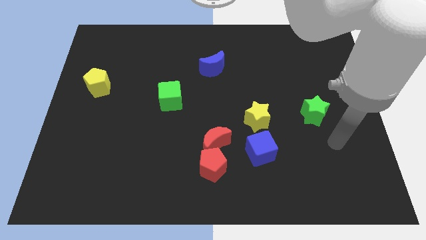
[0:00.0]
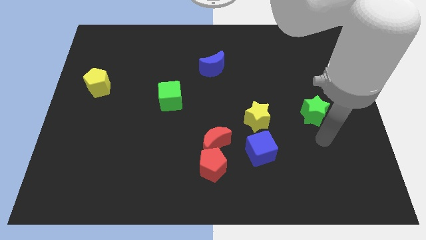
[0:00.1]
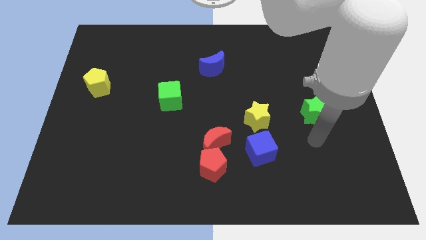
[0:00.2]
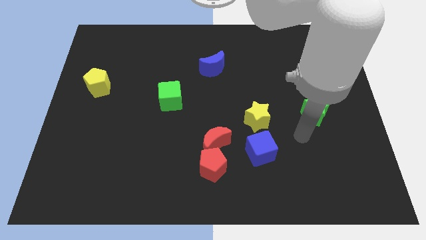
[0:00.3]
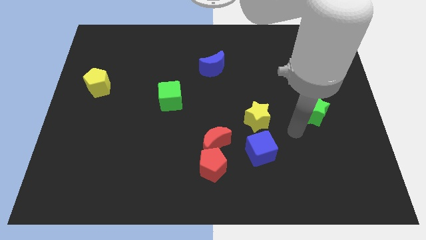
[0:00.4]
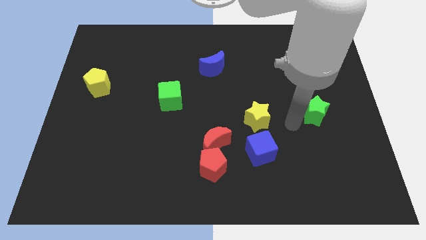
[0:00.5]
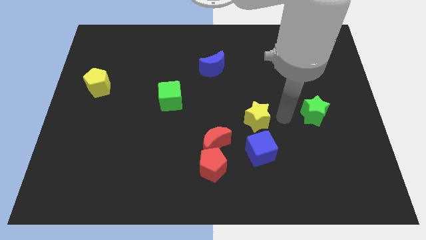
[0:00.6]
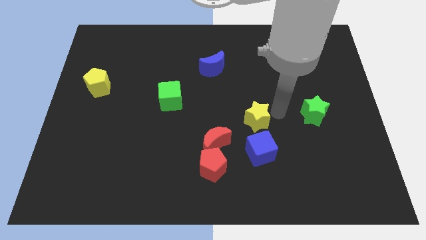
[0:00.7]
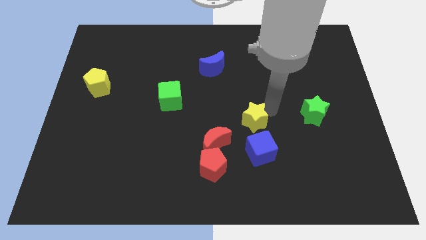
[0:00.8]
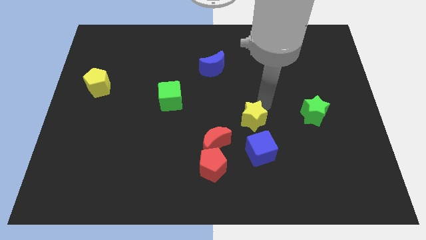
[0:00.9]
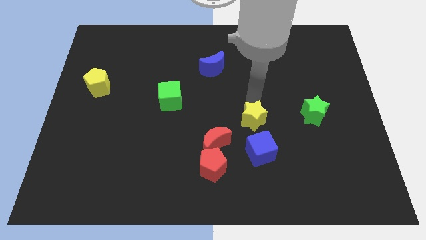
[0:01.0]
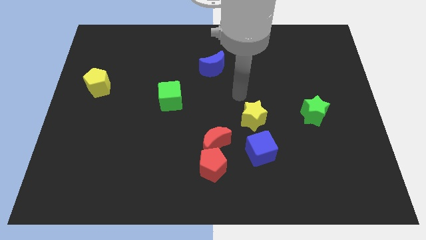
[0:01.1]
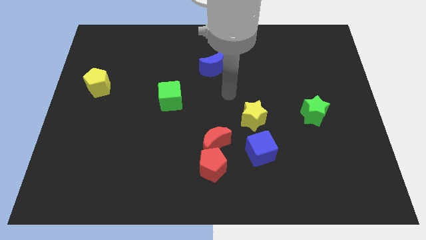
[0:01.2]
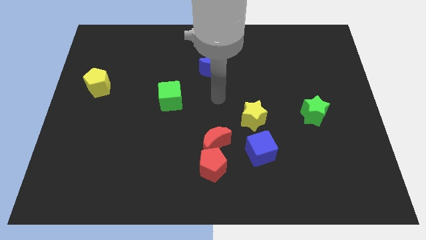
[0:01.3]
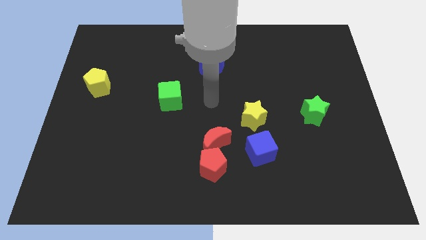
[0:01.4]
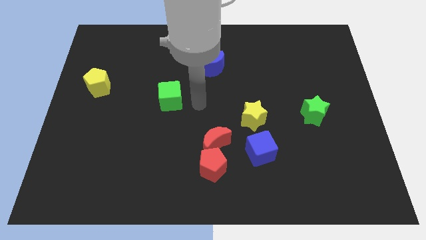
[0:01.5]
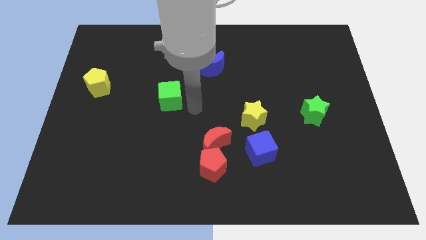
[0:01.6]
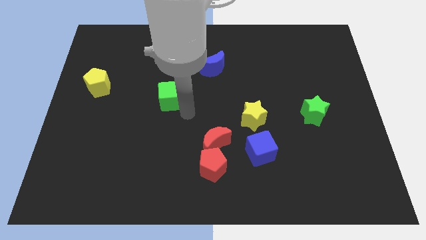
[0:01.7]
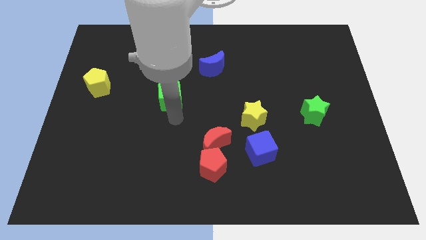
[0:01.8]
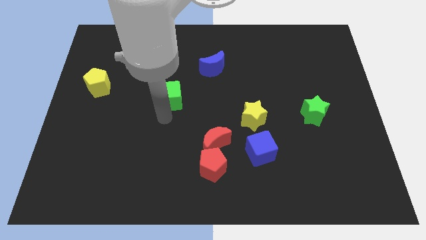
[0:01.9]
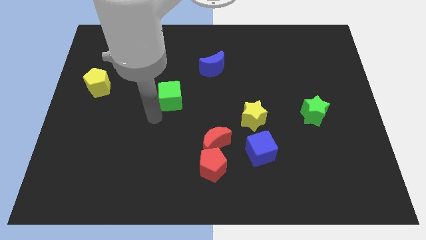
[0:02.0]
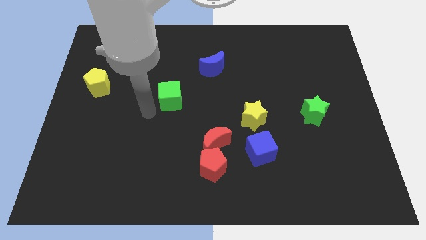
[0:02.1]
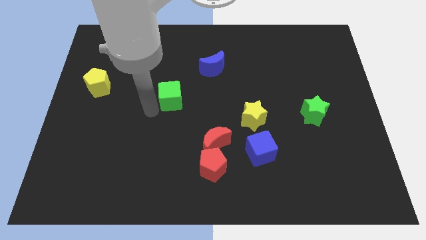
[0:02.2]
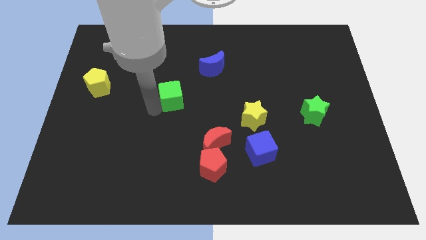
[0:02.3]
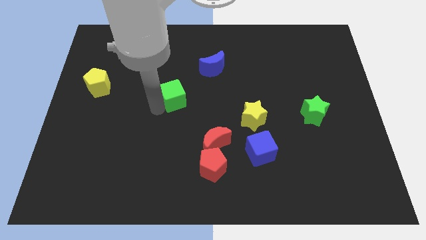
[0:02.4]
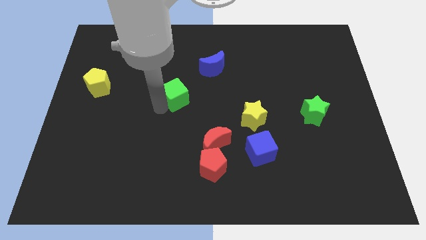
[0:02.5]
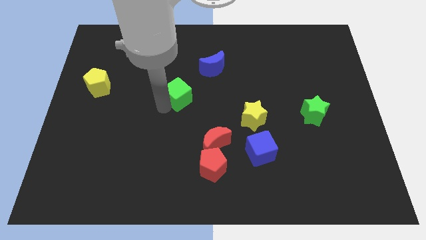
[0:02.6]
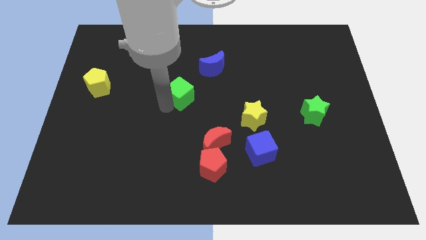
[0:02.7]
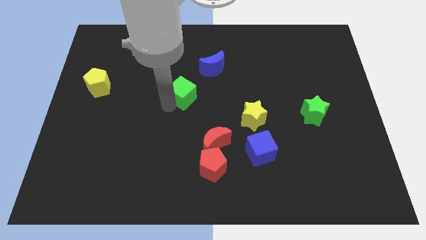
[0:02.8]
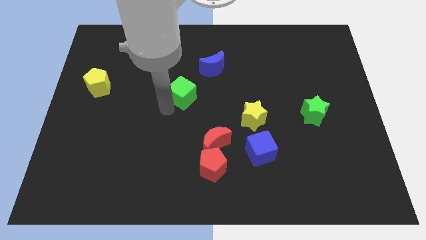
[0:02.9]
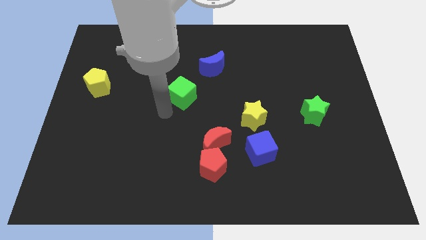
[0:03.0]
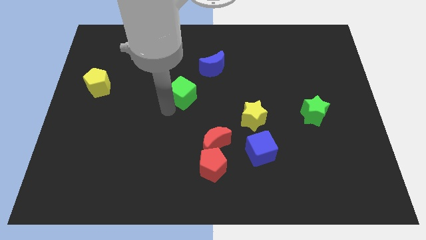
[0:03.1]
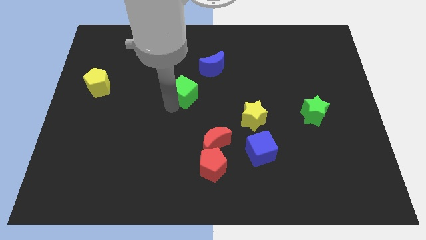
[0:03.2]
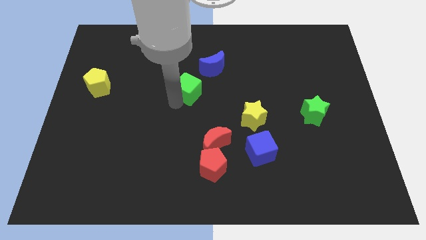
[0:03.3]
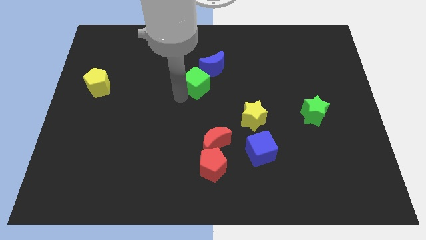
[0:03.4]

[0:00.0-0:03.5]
slightly move the green cube upwards and to the right

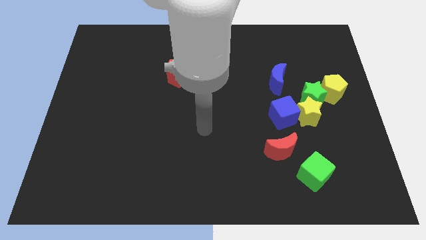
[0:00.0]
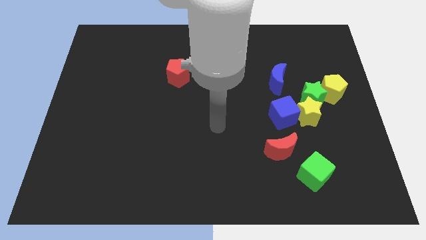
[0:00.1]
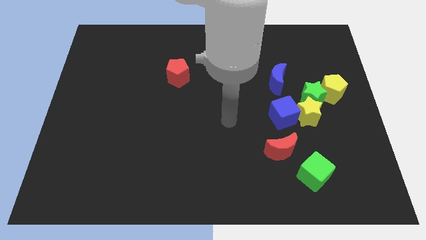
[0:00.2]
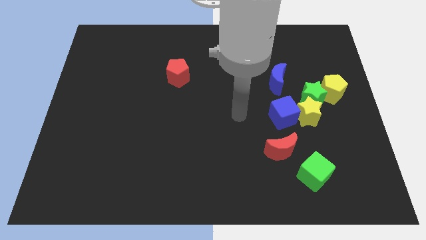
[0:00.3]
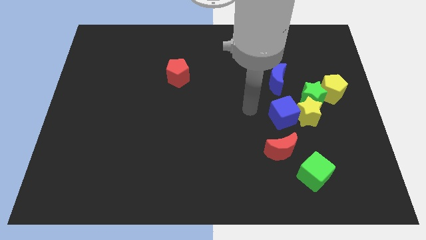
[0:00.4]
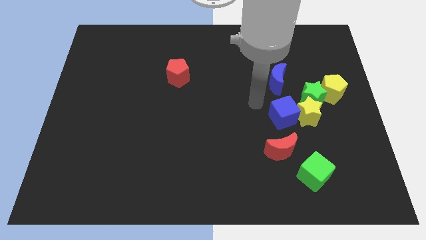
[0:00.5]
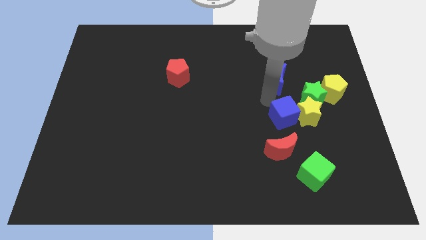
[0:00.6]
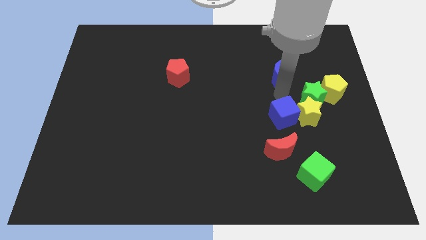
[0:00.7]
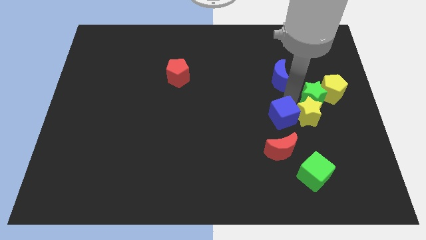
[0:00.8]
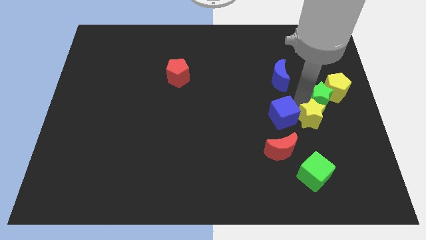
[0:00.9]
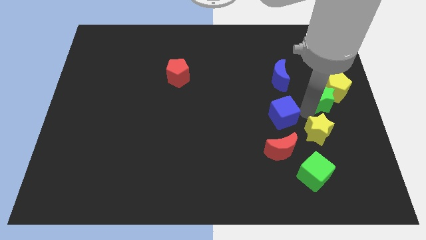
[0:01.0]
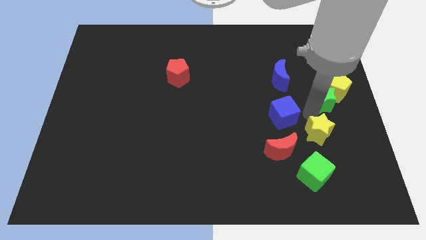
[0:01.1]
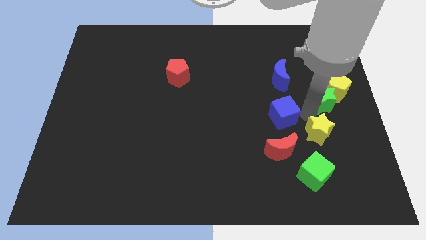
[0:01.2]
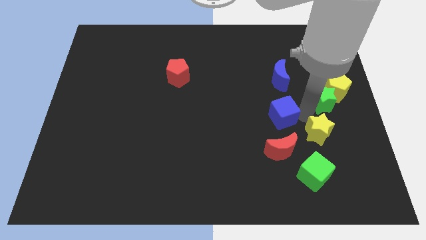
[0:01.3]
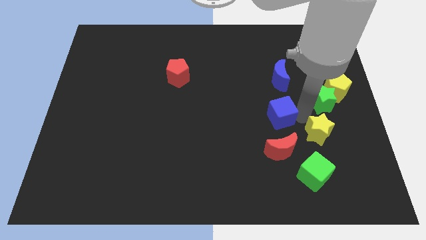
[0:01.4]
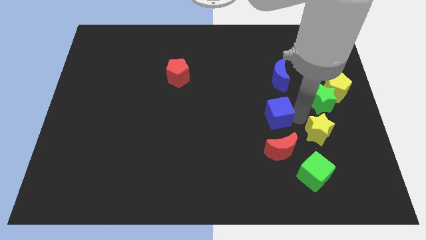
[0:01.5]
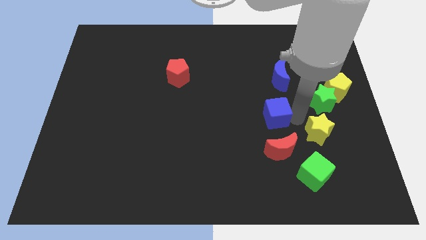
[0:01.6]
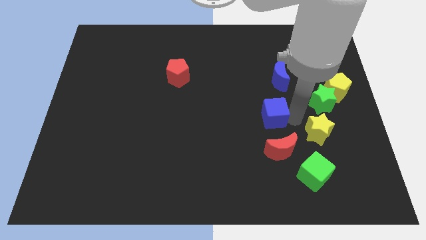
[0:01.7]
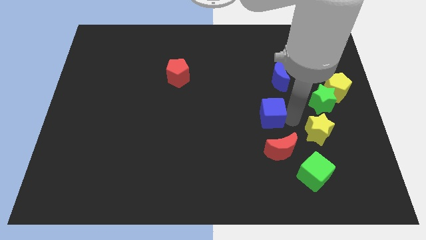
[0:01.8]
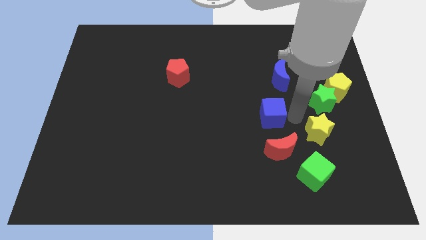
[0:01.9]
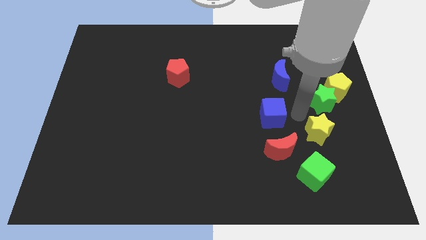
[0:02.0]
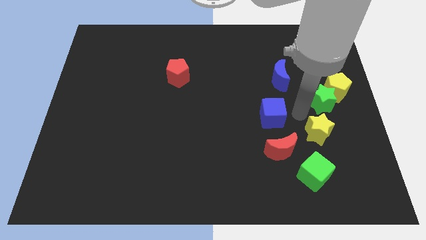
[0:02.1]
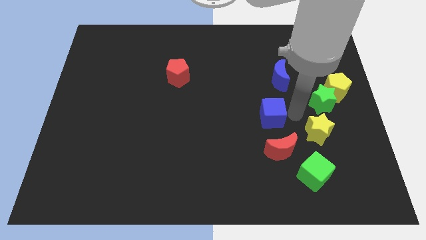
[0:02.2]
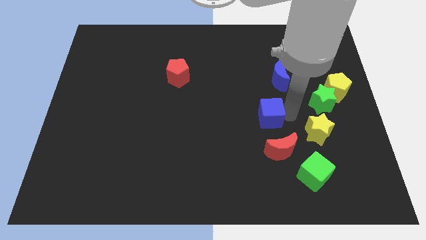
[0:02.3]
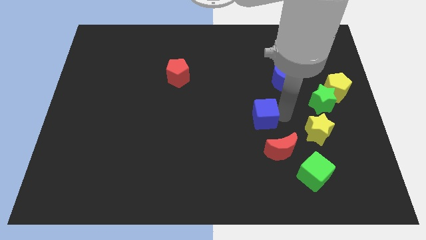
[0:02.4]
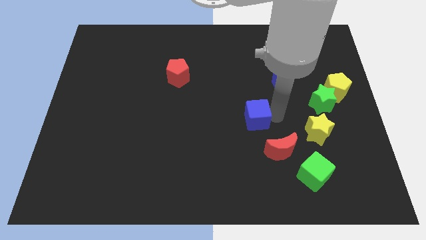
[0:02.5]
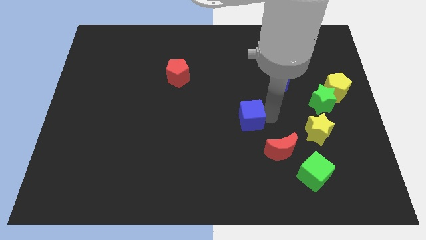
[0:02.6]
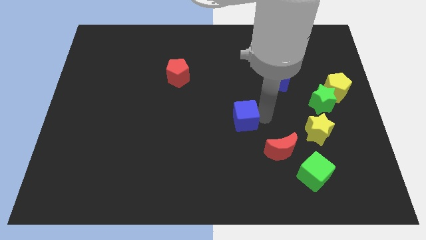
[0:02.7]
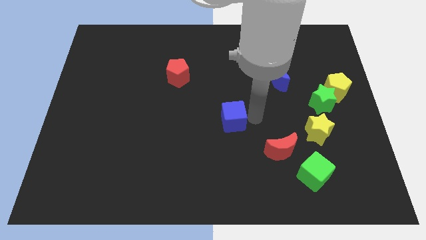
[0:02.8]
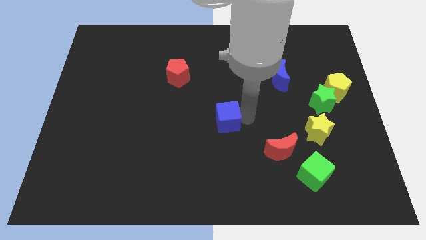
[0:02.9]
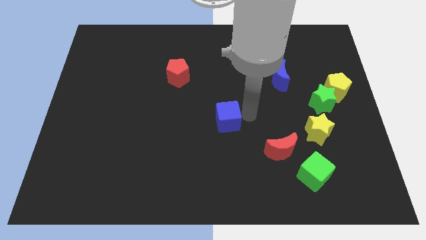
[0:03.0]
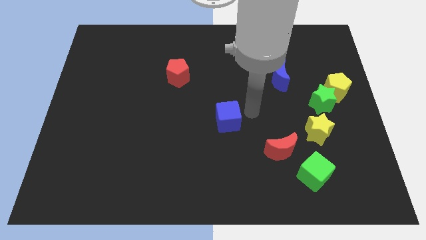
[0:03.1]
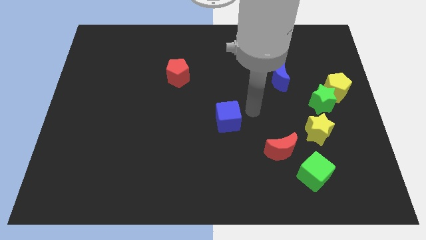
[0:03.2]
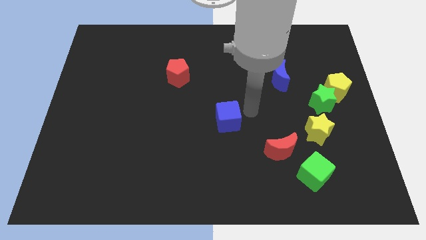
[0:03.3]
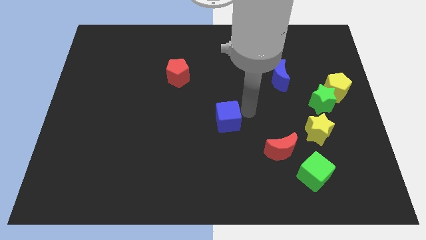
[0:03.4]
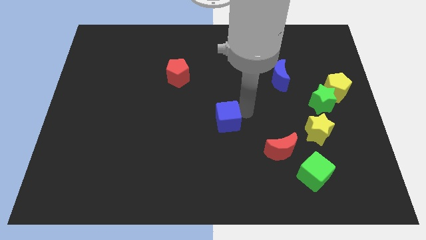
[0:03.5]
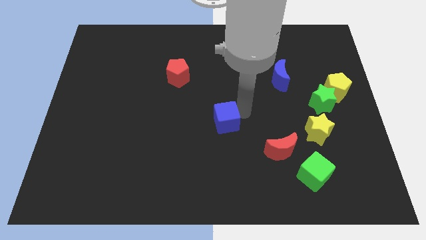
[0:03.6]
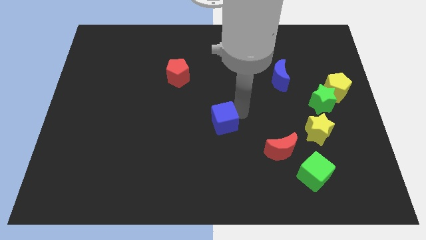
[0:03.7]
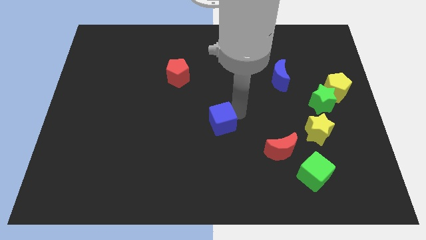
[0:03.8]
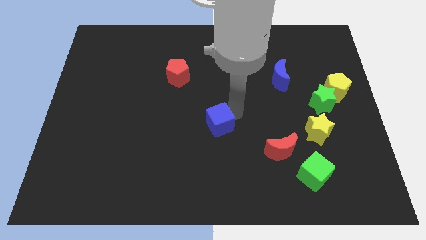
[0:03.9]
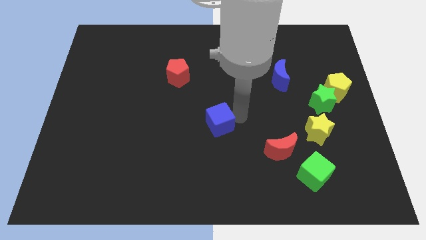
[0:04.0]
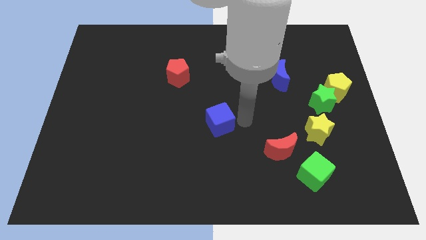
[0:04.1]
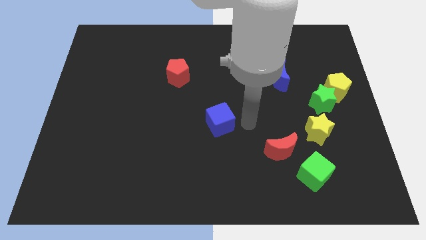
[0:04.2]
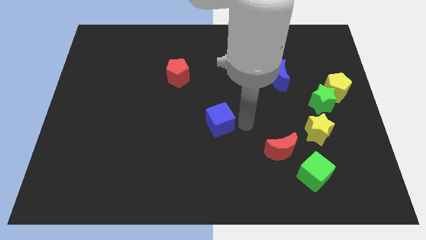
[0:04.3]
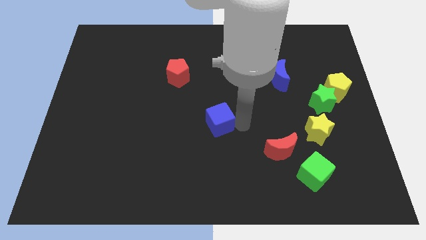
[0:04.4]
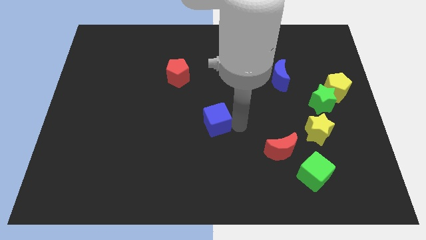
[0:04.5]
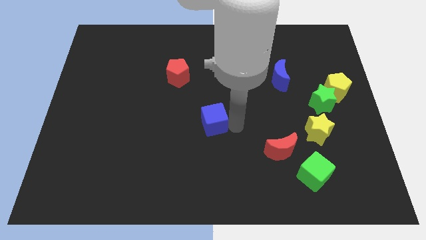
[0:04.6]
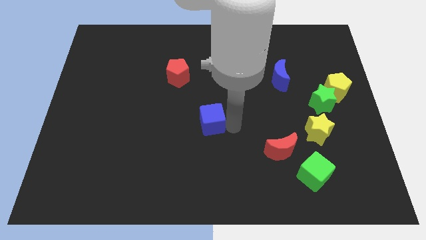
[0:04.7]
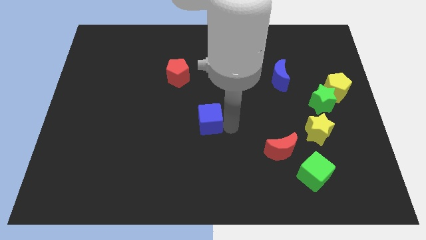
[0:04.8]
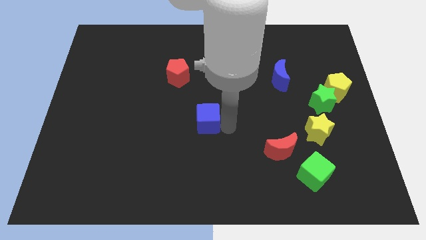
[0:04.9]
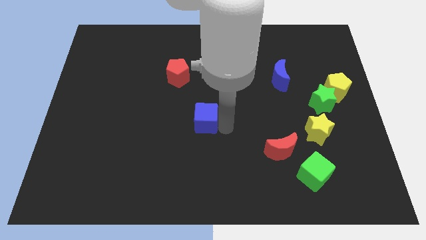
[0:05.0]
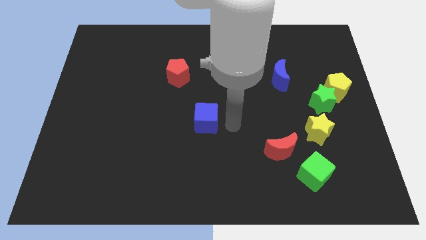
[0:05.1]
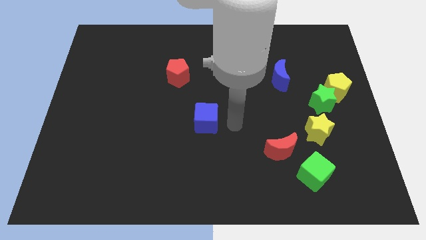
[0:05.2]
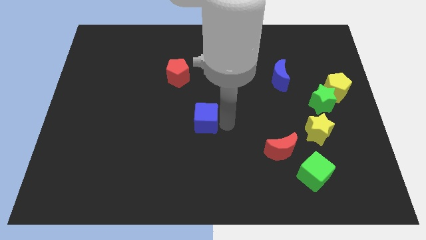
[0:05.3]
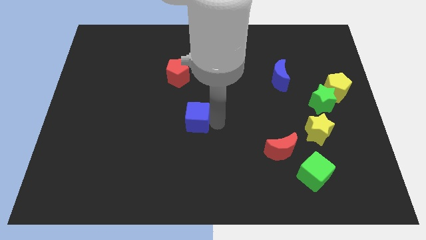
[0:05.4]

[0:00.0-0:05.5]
push the blue cube to the left
